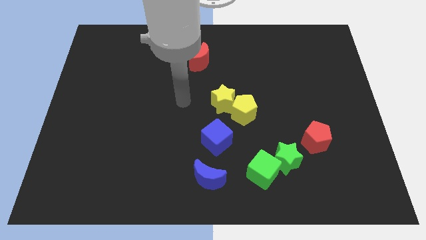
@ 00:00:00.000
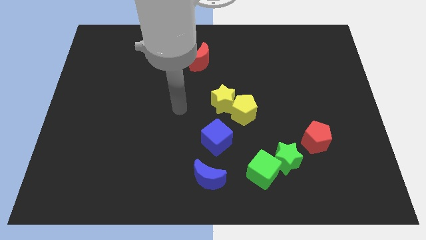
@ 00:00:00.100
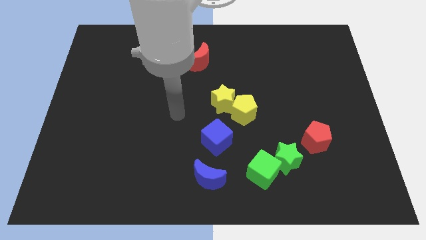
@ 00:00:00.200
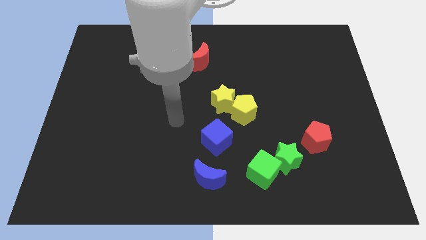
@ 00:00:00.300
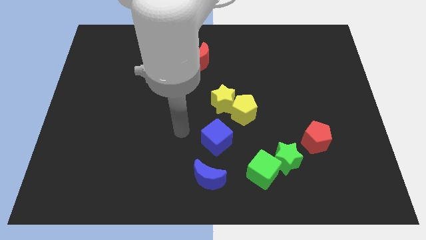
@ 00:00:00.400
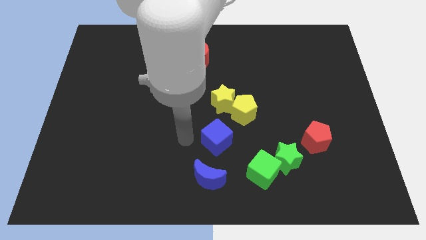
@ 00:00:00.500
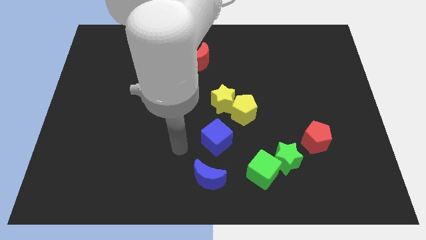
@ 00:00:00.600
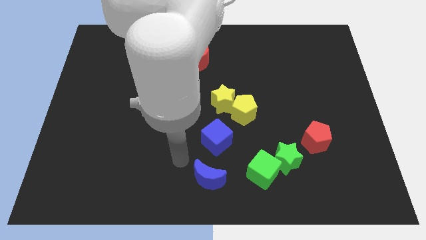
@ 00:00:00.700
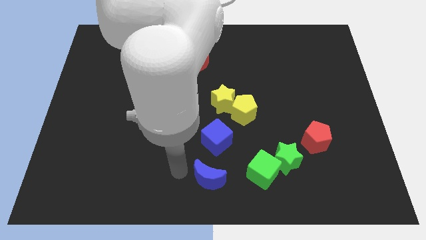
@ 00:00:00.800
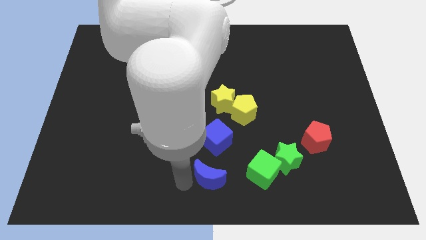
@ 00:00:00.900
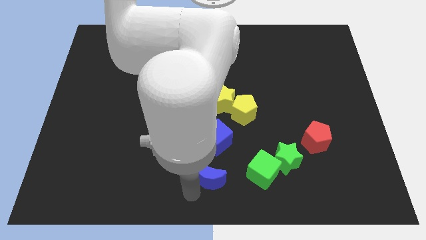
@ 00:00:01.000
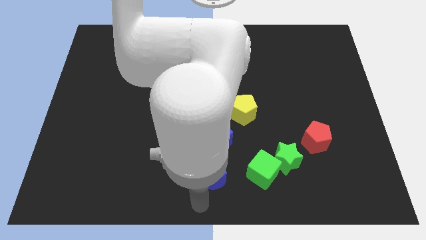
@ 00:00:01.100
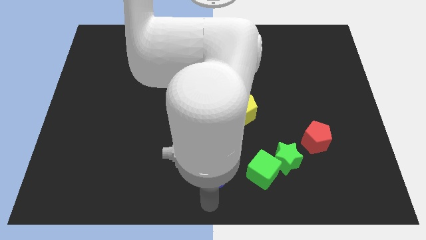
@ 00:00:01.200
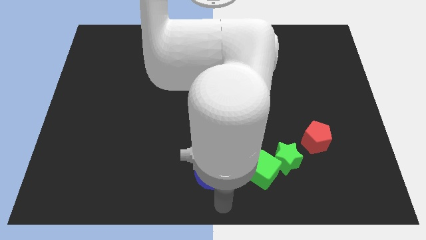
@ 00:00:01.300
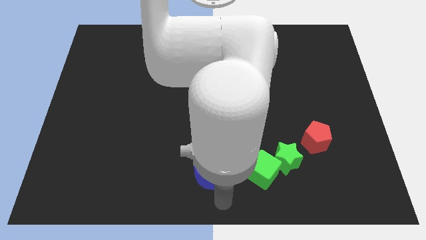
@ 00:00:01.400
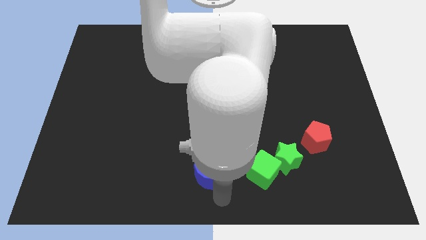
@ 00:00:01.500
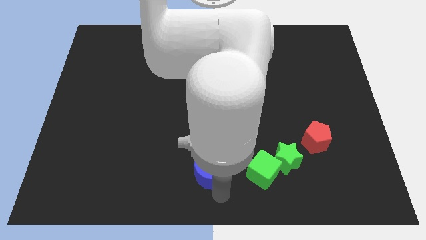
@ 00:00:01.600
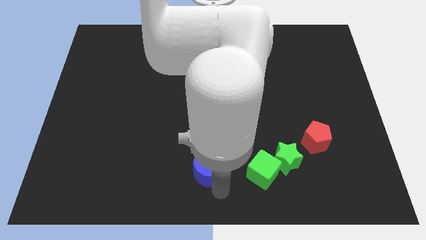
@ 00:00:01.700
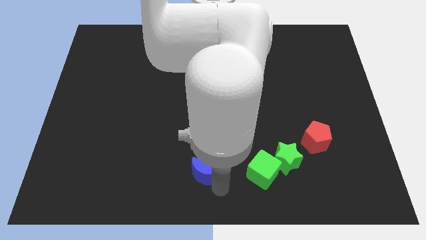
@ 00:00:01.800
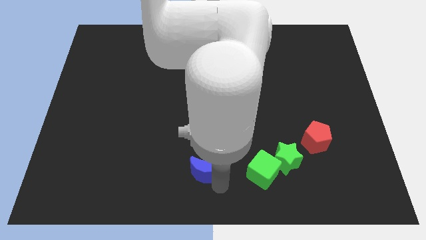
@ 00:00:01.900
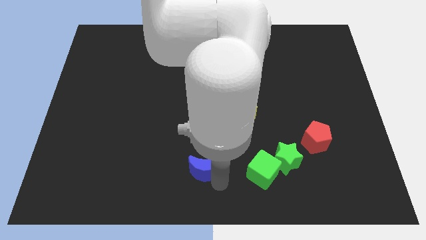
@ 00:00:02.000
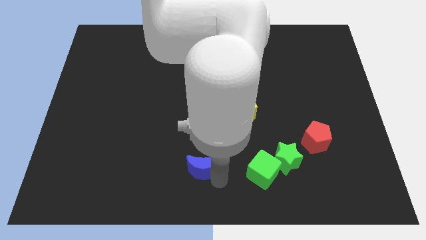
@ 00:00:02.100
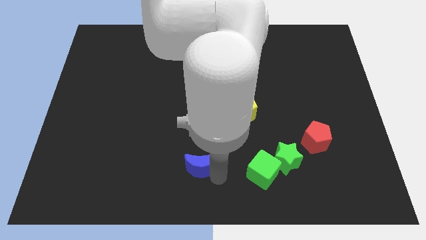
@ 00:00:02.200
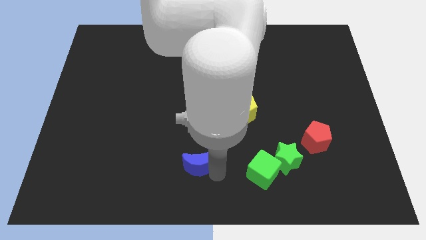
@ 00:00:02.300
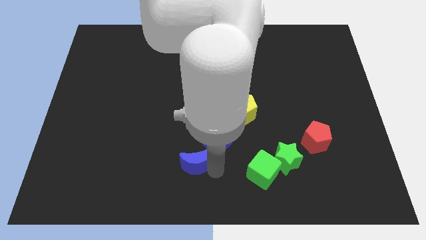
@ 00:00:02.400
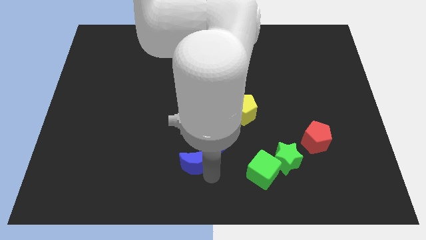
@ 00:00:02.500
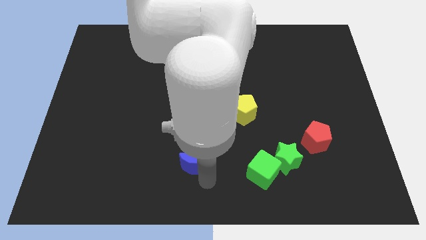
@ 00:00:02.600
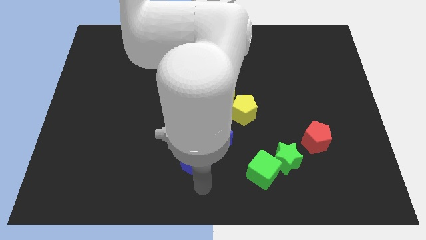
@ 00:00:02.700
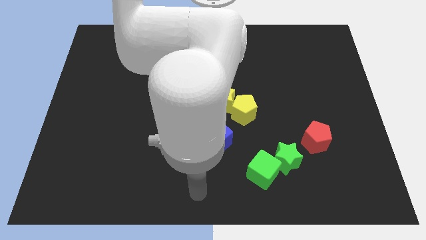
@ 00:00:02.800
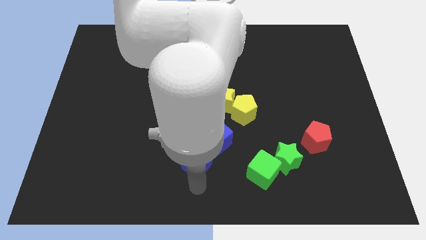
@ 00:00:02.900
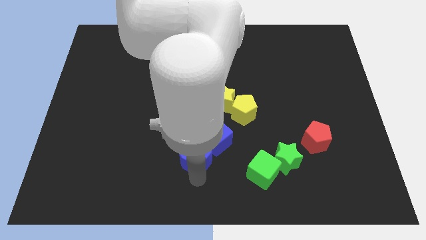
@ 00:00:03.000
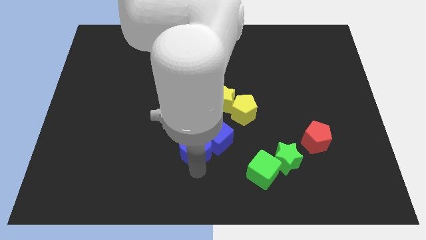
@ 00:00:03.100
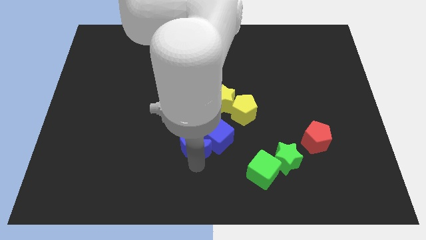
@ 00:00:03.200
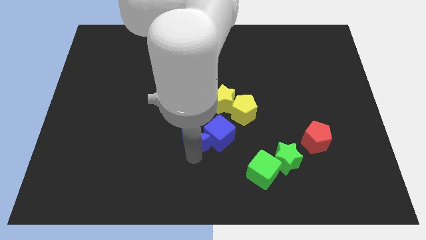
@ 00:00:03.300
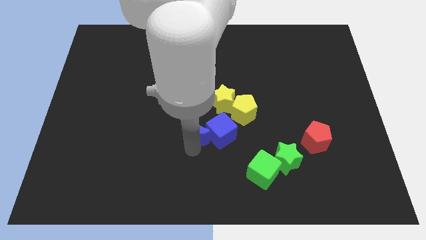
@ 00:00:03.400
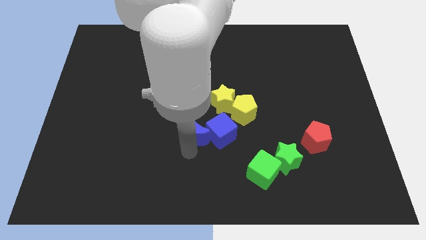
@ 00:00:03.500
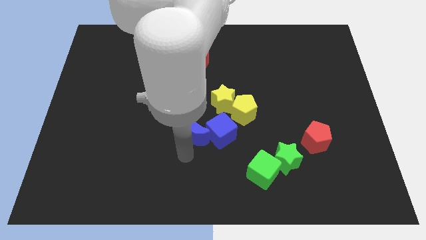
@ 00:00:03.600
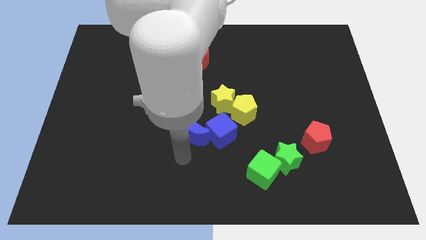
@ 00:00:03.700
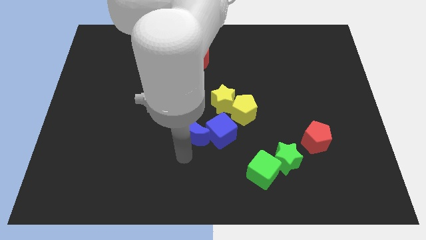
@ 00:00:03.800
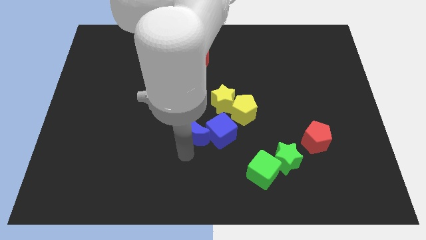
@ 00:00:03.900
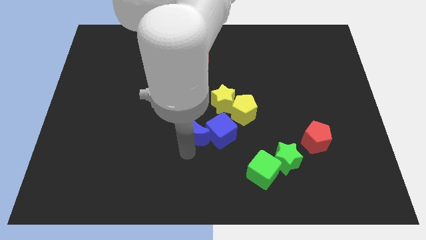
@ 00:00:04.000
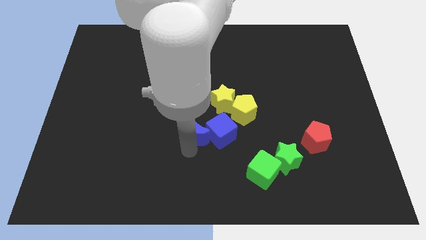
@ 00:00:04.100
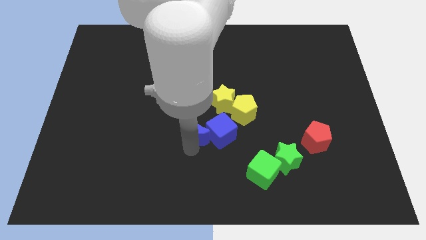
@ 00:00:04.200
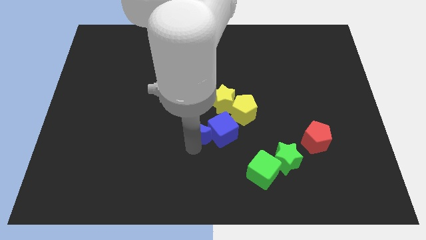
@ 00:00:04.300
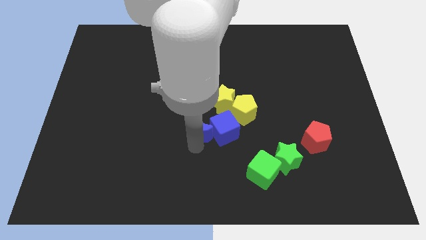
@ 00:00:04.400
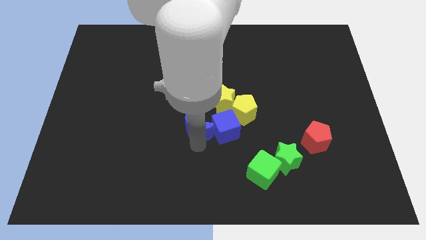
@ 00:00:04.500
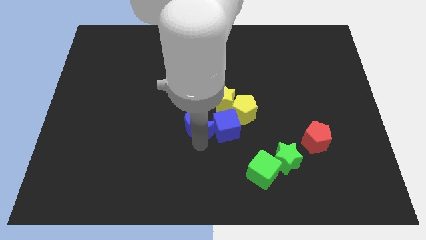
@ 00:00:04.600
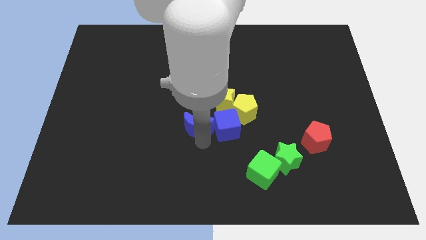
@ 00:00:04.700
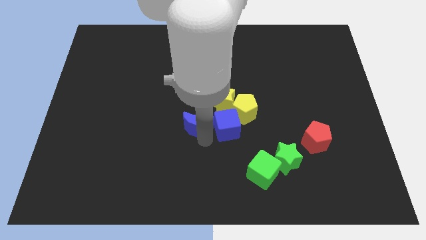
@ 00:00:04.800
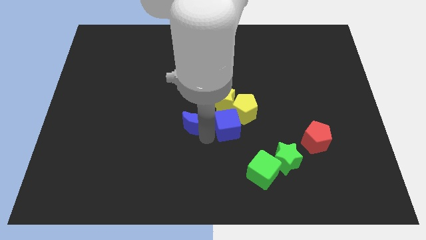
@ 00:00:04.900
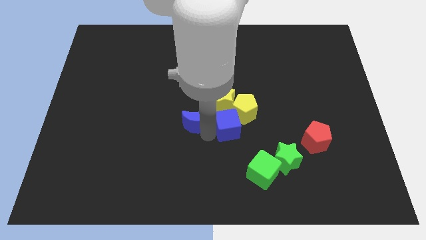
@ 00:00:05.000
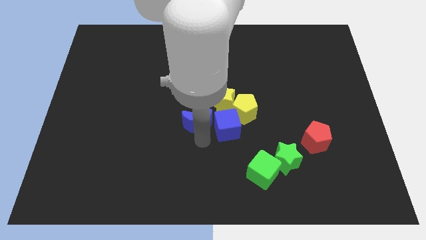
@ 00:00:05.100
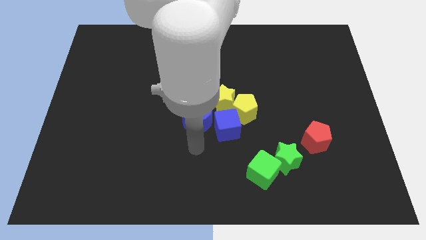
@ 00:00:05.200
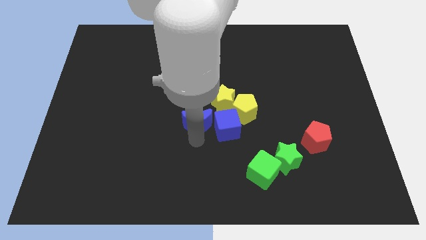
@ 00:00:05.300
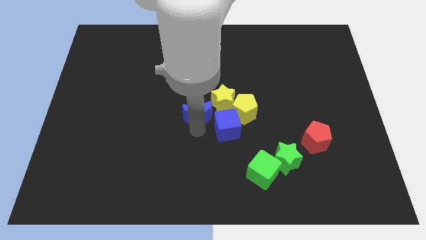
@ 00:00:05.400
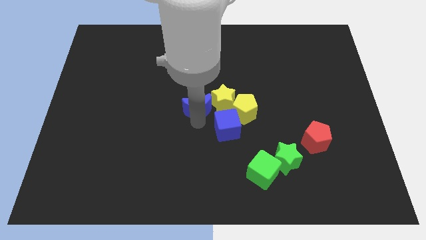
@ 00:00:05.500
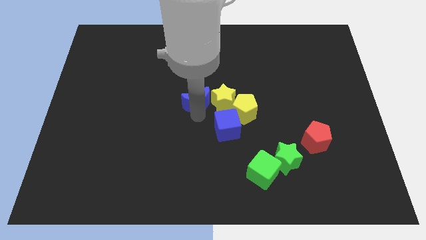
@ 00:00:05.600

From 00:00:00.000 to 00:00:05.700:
put the blue moon to the top left side of the yellow star
